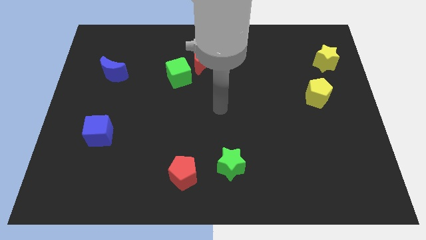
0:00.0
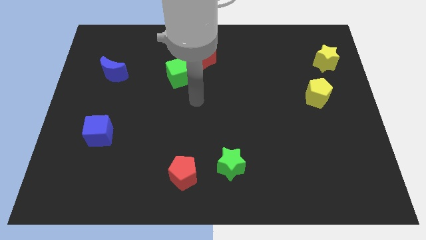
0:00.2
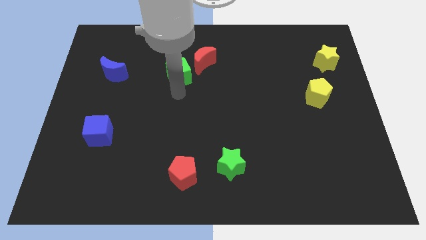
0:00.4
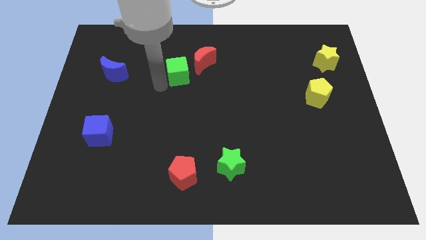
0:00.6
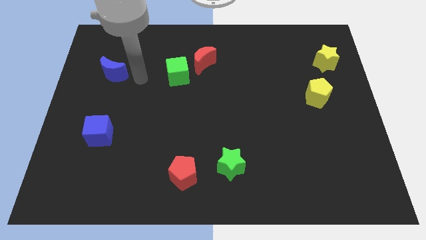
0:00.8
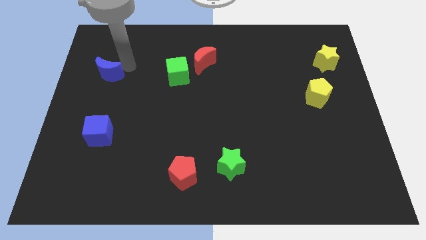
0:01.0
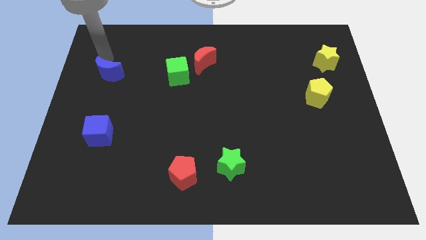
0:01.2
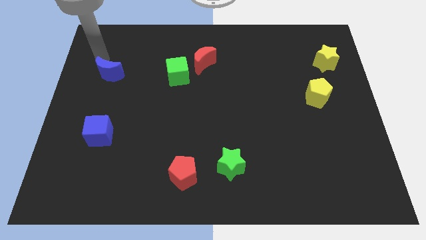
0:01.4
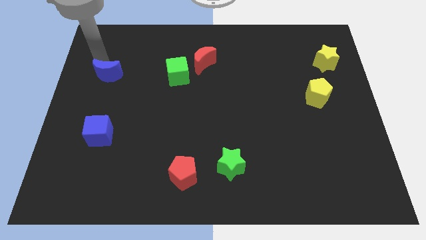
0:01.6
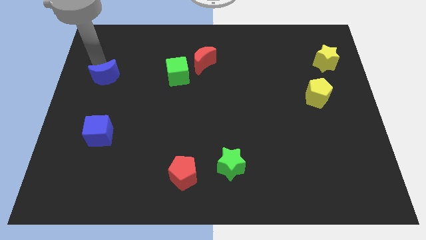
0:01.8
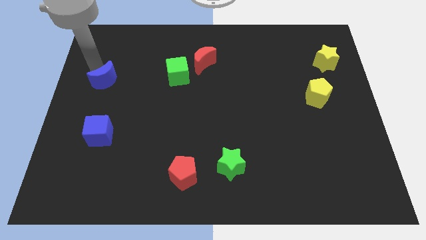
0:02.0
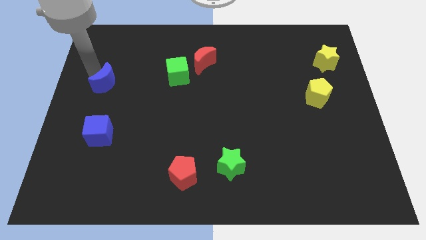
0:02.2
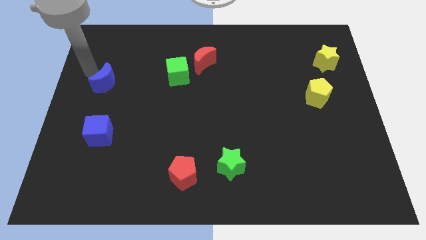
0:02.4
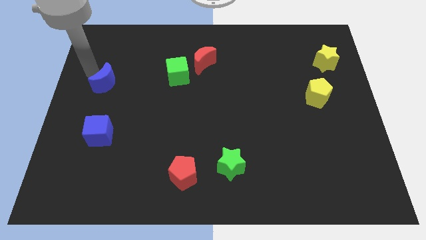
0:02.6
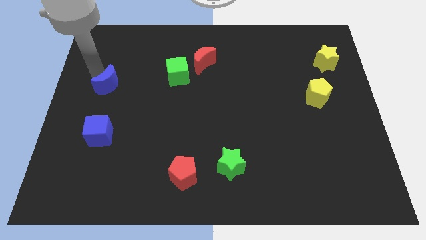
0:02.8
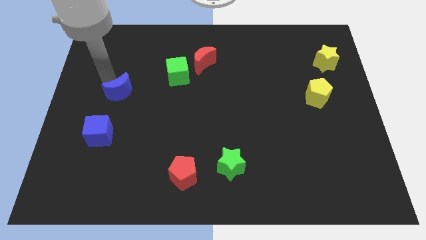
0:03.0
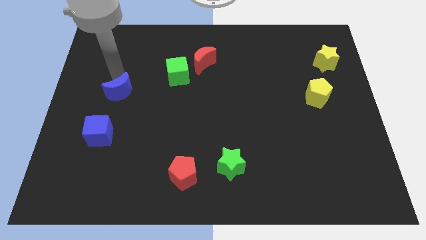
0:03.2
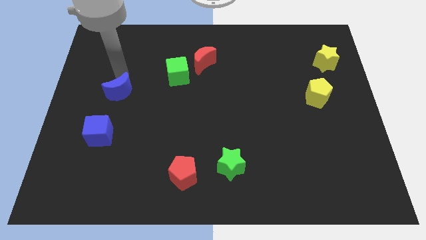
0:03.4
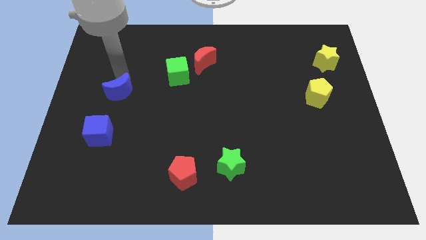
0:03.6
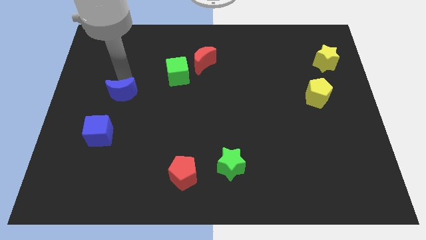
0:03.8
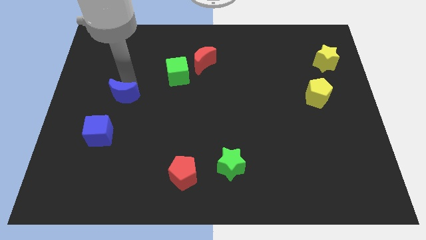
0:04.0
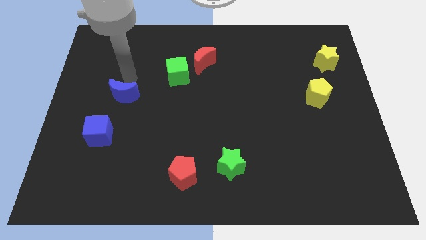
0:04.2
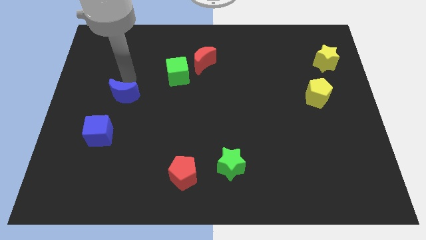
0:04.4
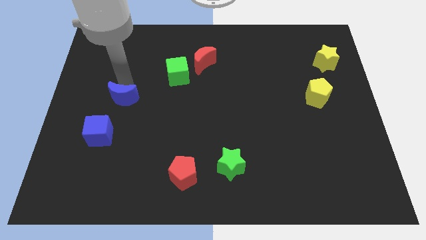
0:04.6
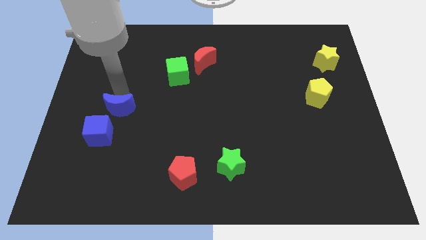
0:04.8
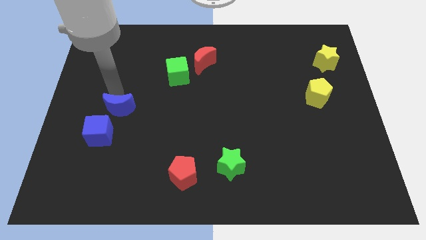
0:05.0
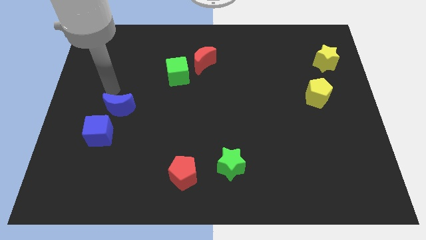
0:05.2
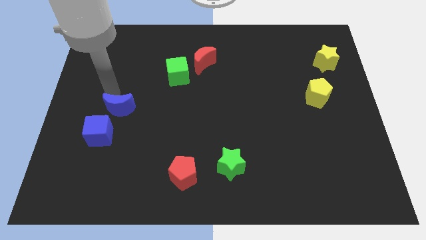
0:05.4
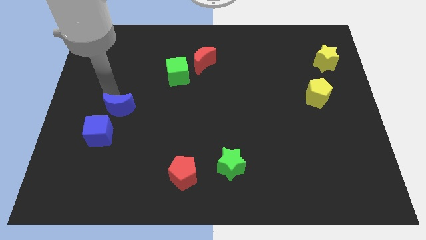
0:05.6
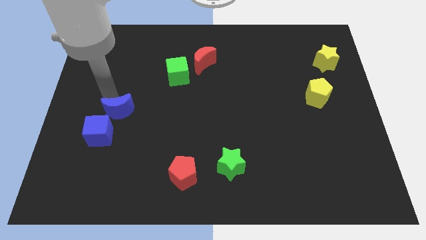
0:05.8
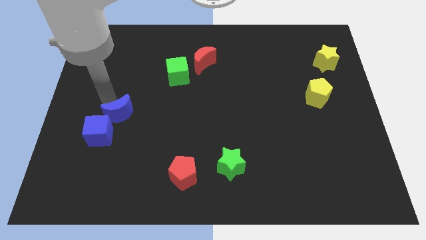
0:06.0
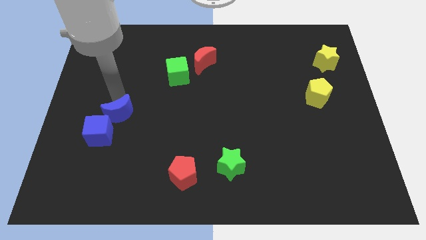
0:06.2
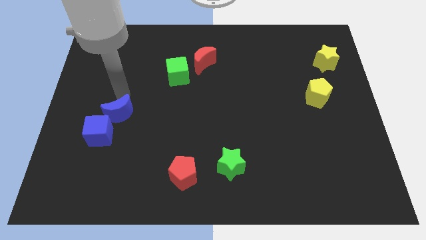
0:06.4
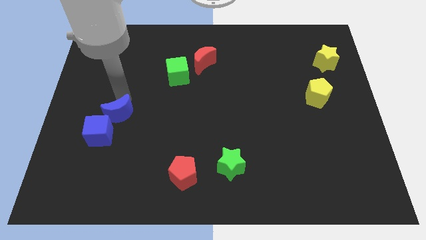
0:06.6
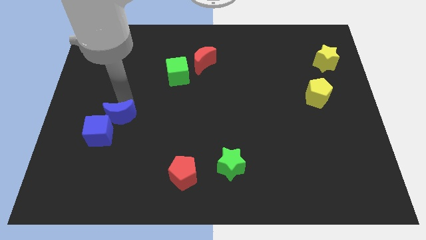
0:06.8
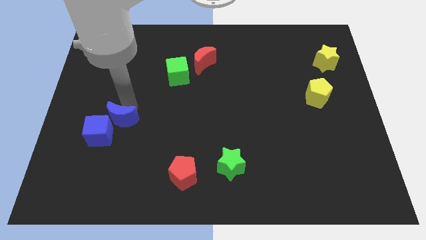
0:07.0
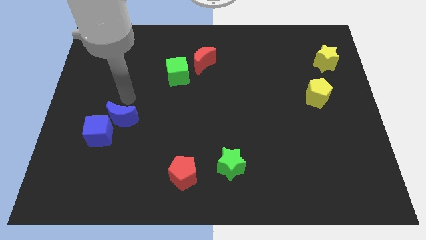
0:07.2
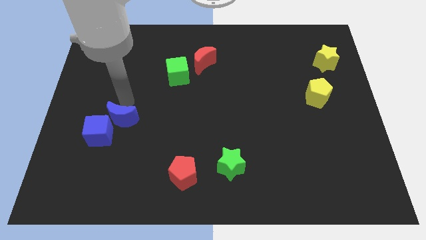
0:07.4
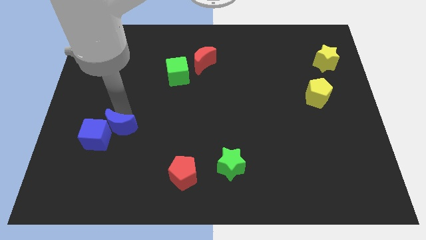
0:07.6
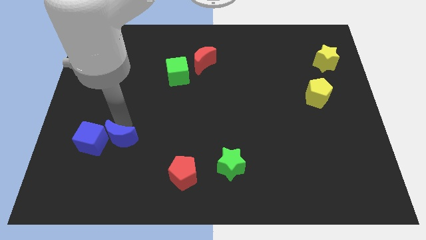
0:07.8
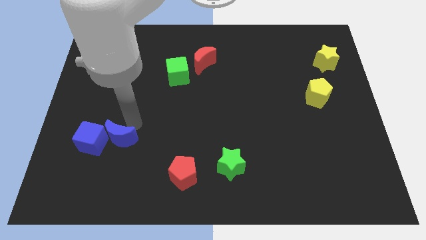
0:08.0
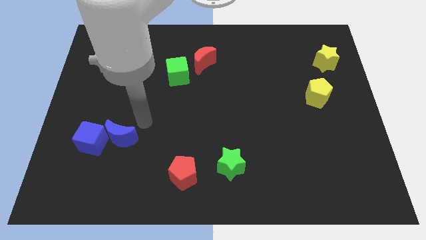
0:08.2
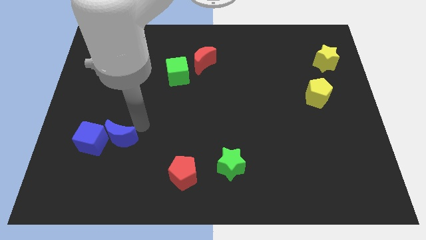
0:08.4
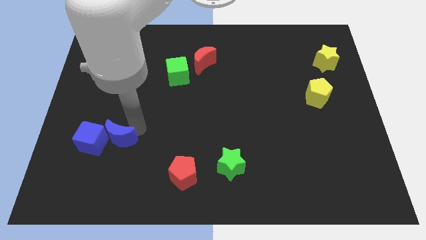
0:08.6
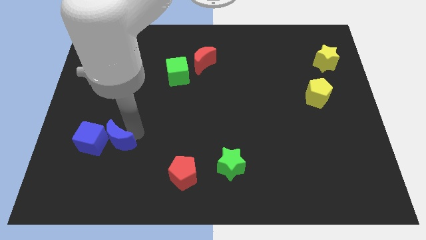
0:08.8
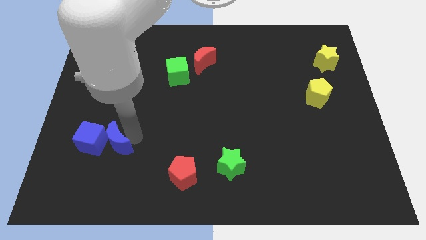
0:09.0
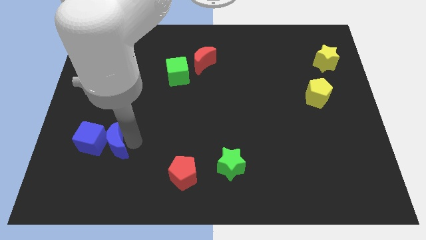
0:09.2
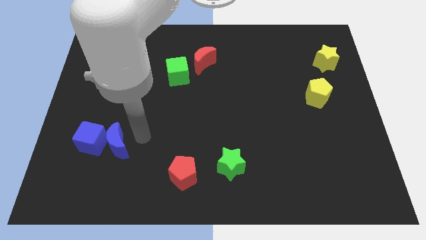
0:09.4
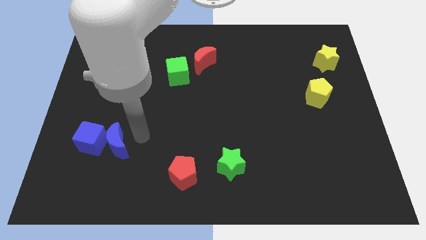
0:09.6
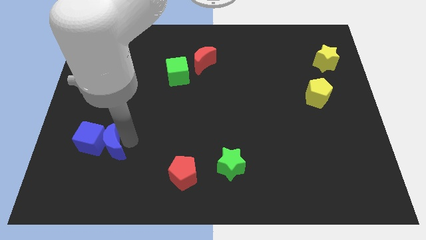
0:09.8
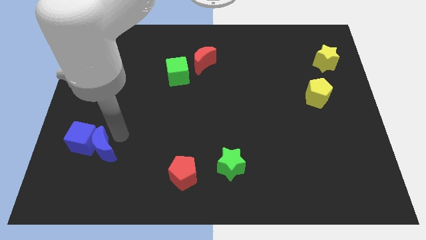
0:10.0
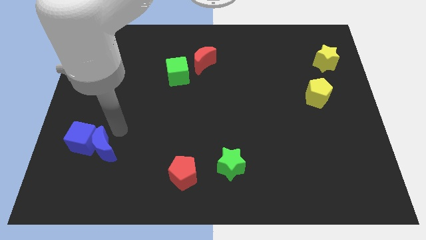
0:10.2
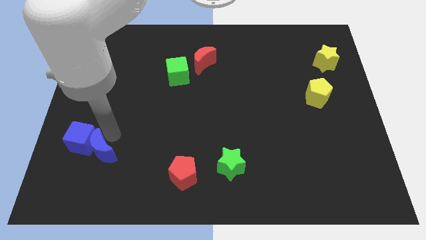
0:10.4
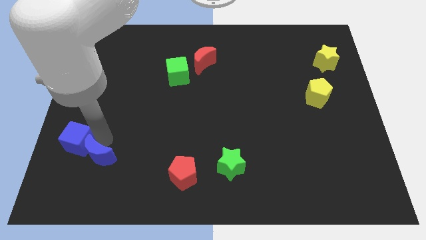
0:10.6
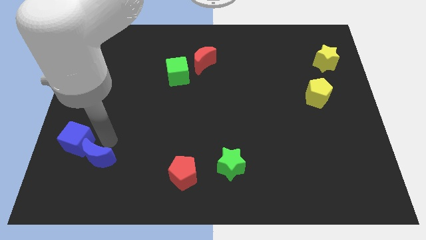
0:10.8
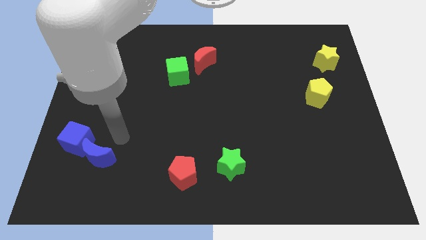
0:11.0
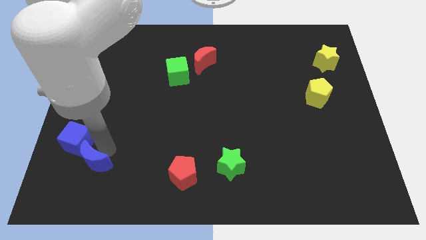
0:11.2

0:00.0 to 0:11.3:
put the blue moon to the bottom side of the blue cube

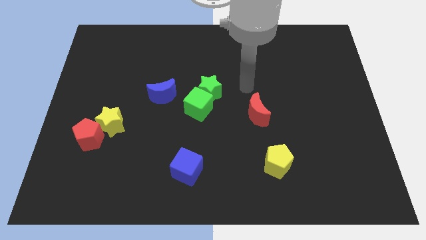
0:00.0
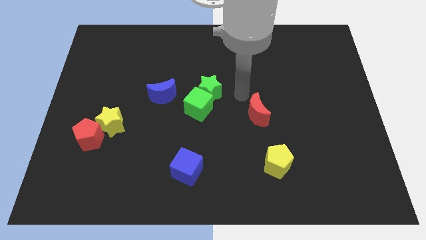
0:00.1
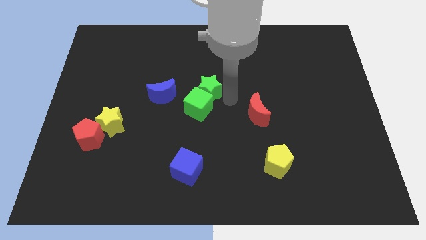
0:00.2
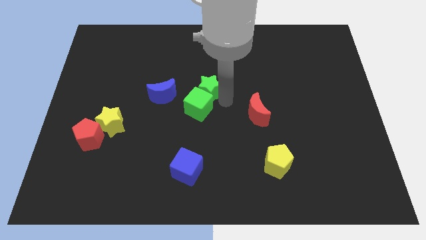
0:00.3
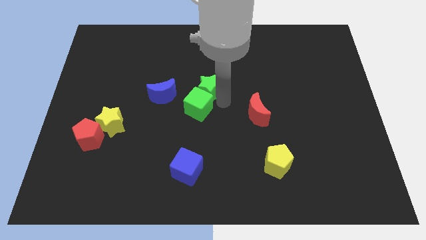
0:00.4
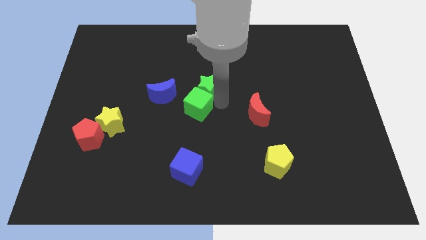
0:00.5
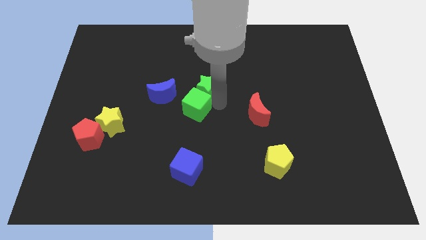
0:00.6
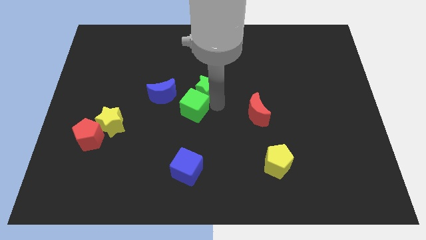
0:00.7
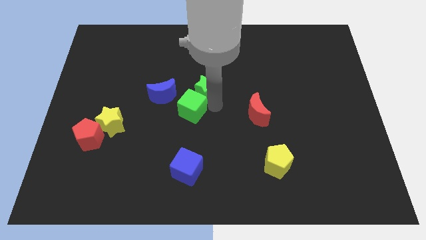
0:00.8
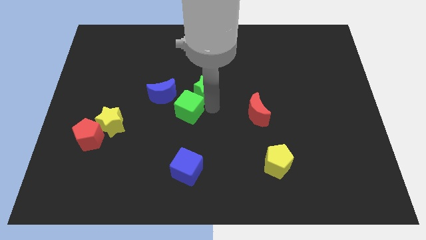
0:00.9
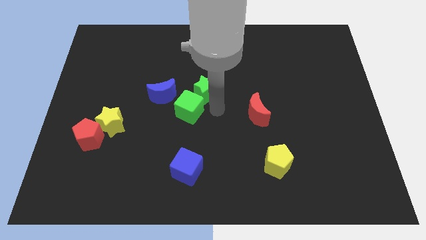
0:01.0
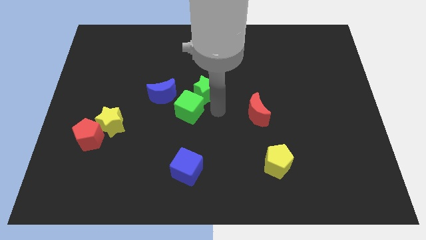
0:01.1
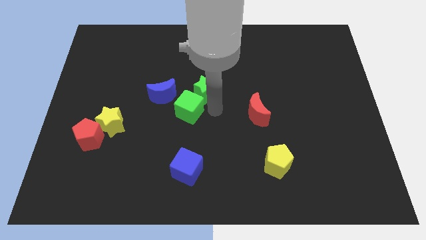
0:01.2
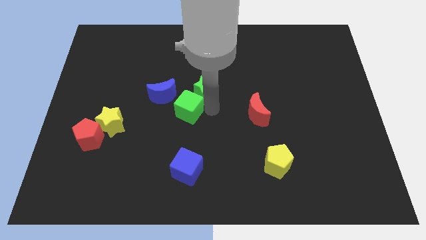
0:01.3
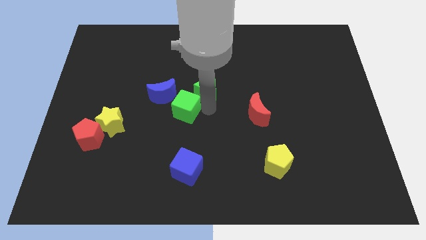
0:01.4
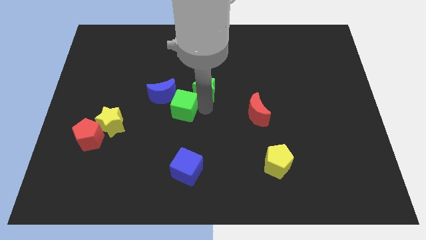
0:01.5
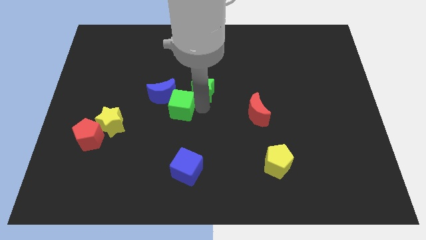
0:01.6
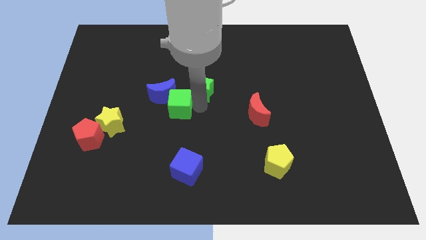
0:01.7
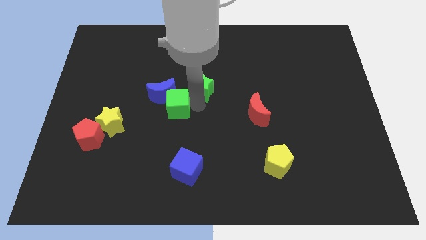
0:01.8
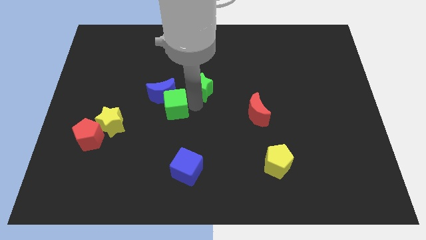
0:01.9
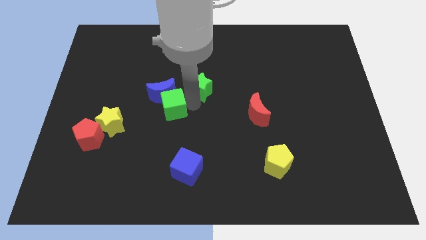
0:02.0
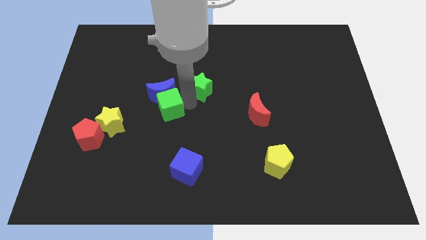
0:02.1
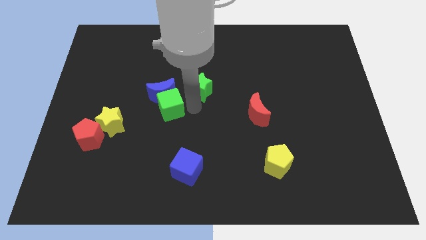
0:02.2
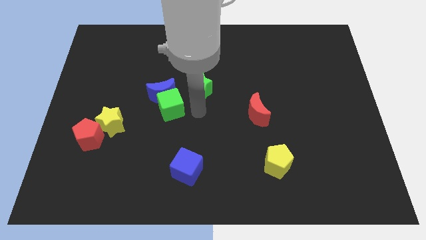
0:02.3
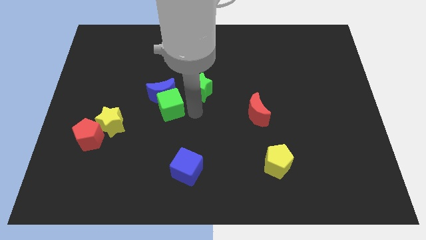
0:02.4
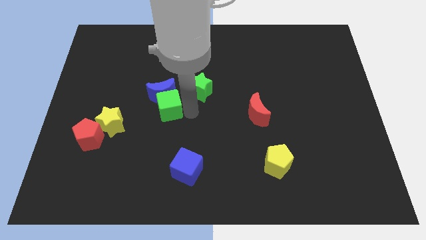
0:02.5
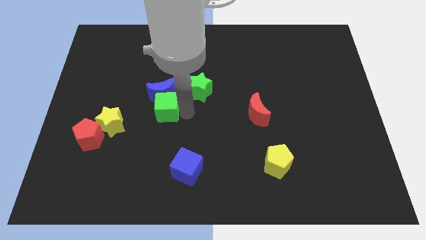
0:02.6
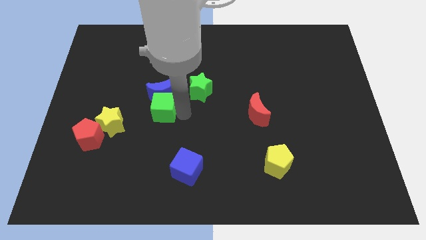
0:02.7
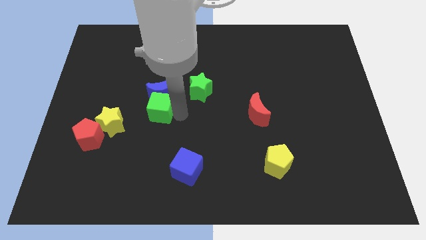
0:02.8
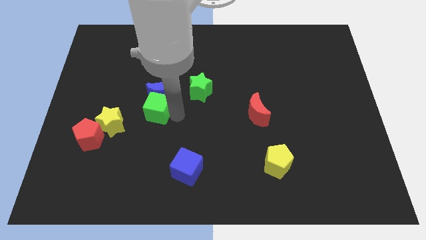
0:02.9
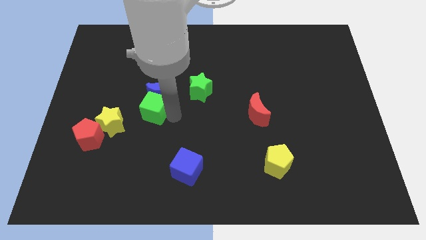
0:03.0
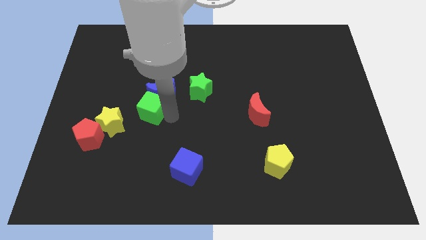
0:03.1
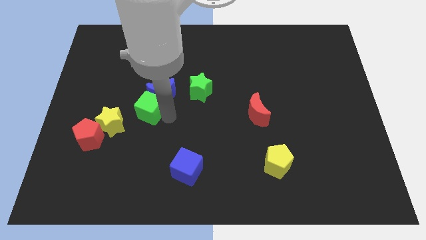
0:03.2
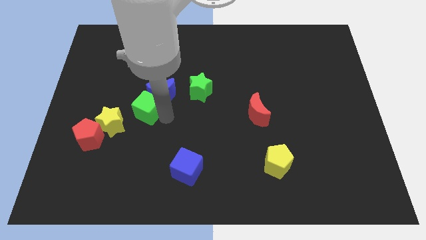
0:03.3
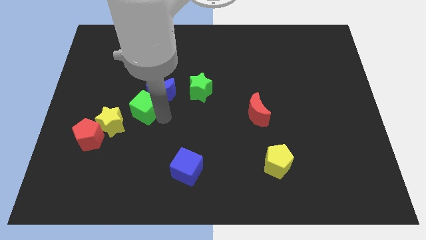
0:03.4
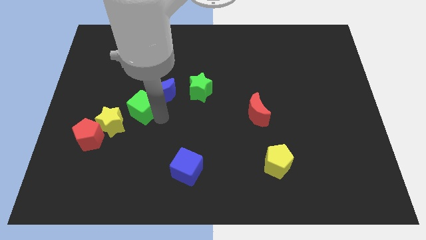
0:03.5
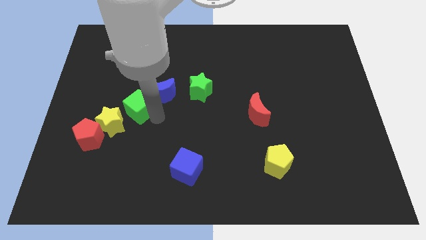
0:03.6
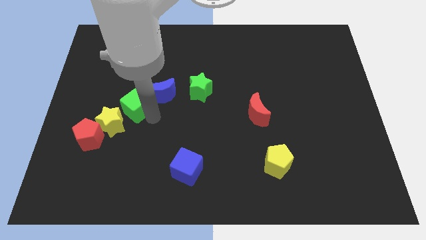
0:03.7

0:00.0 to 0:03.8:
put the green cube above the yellow star
